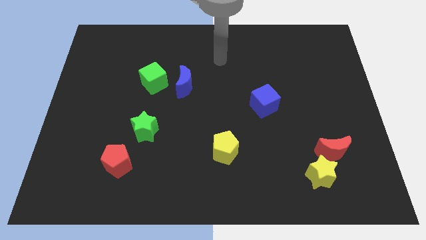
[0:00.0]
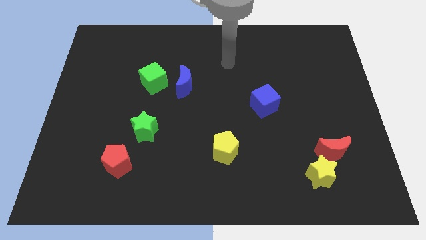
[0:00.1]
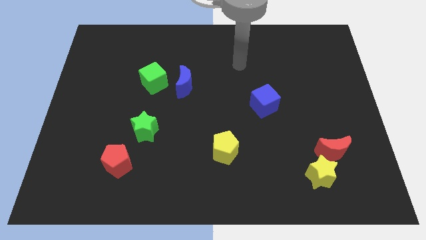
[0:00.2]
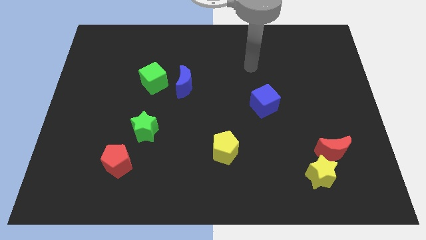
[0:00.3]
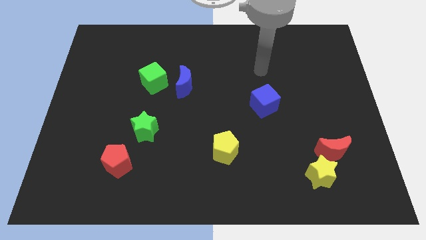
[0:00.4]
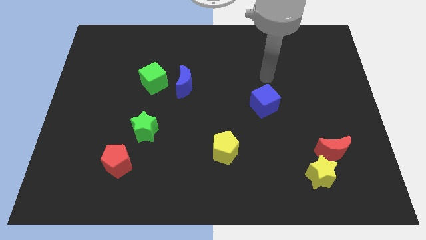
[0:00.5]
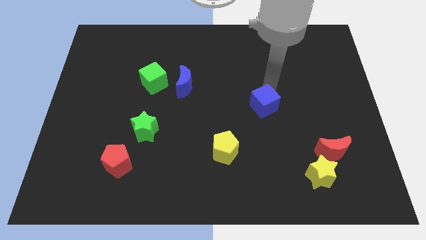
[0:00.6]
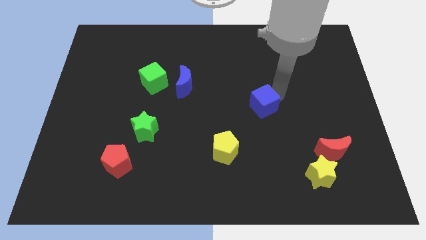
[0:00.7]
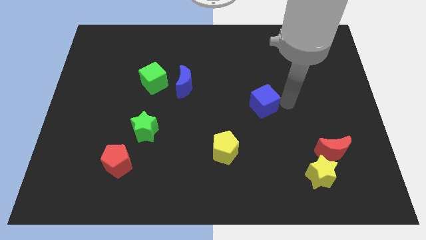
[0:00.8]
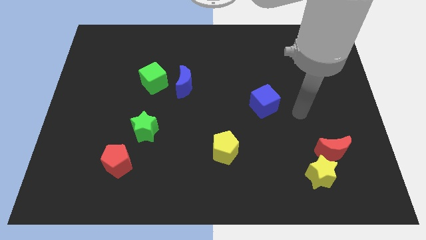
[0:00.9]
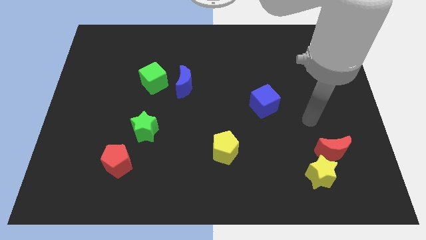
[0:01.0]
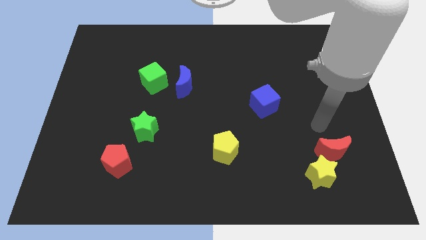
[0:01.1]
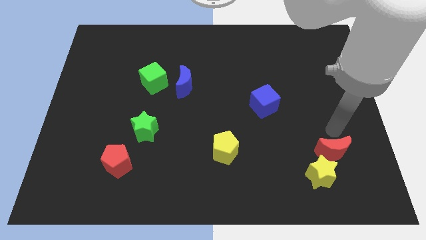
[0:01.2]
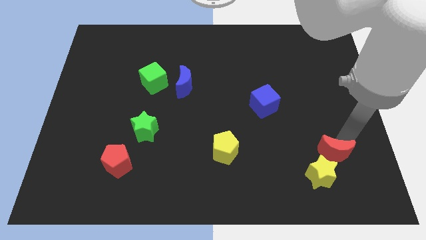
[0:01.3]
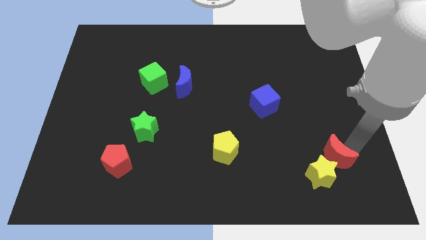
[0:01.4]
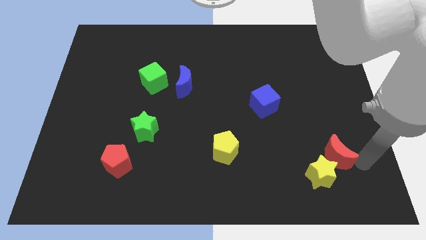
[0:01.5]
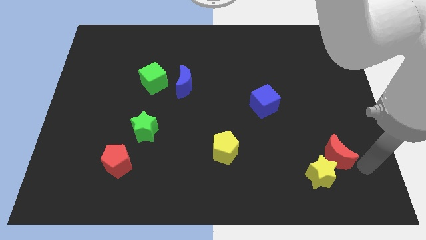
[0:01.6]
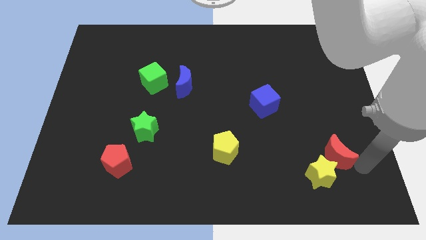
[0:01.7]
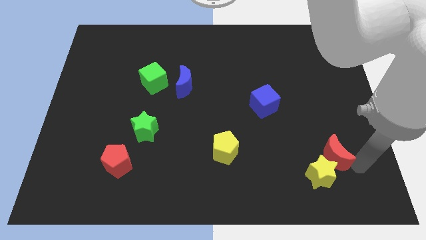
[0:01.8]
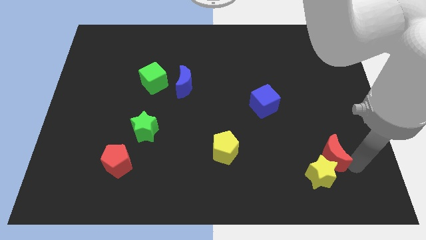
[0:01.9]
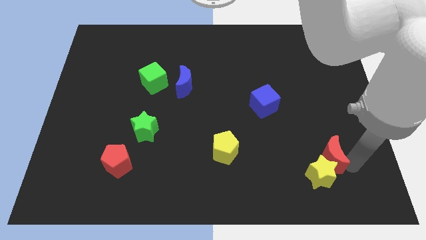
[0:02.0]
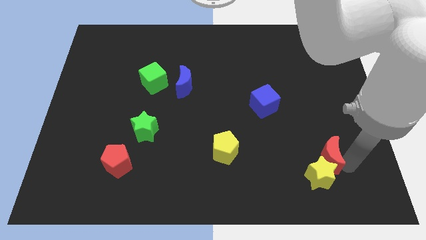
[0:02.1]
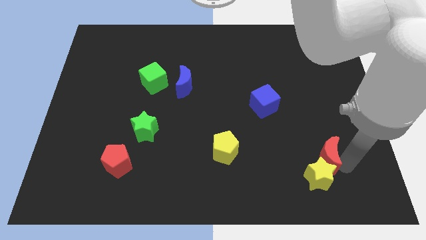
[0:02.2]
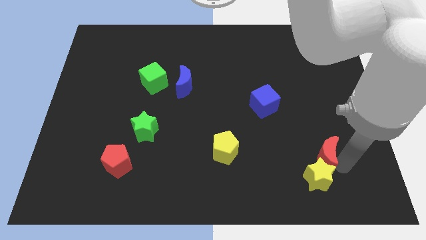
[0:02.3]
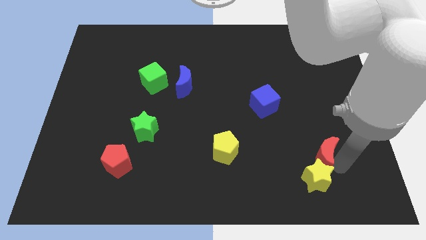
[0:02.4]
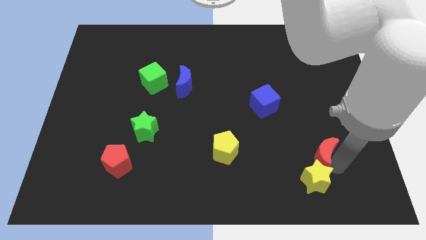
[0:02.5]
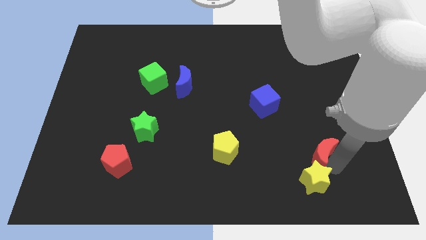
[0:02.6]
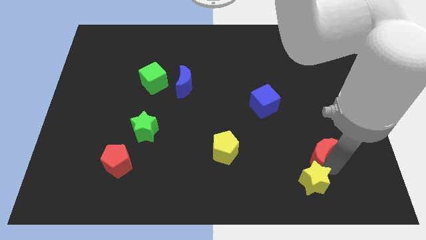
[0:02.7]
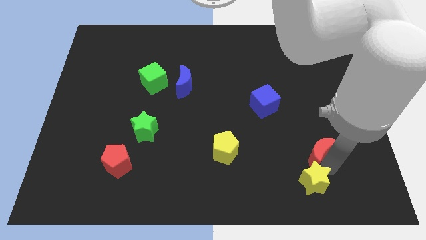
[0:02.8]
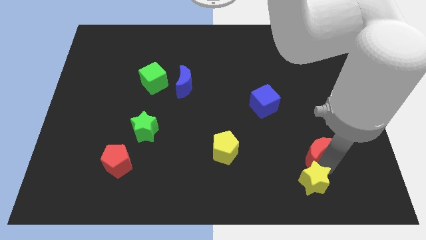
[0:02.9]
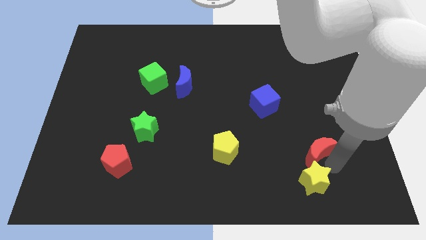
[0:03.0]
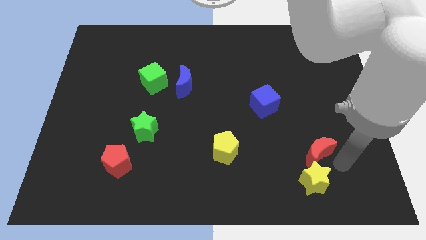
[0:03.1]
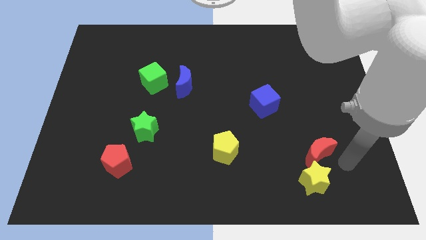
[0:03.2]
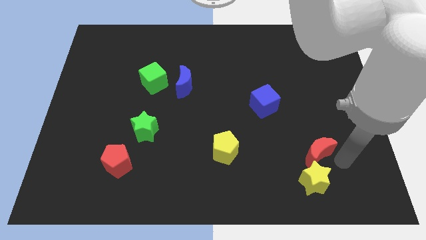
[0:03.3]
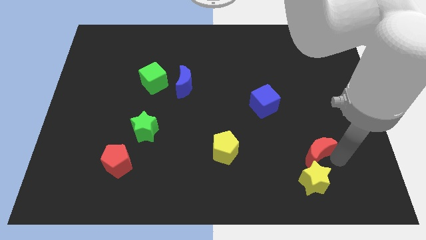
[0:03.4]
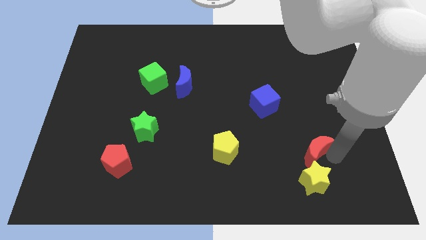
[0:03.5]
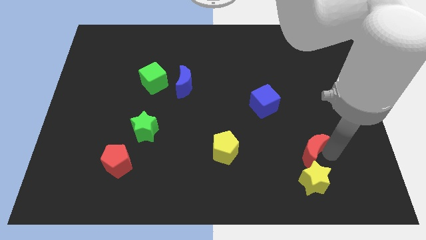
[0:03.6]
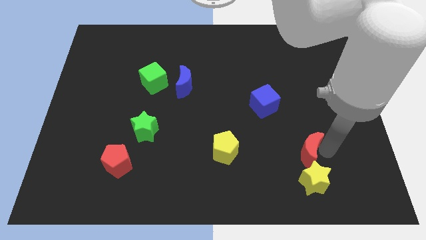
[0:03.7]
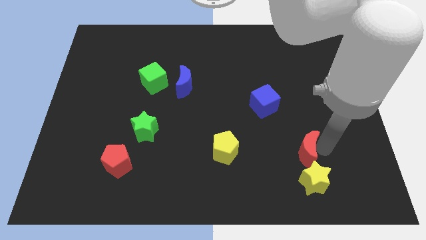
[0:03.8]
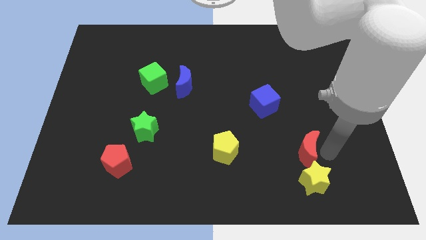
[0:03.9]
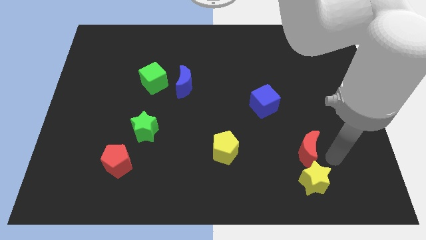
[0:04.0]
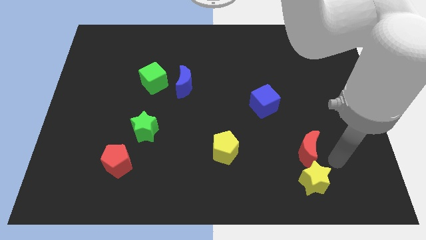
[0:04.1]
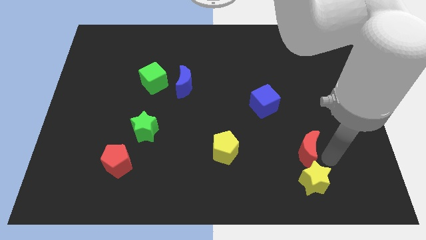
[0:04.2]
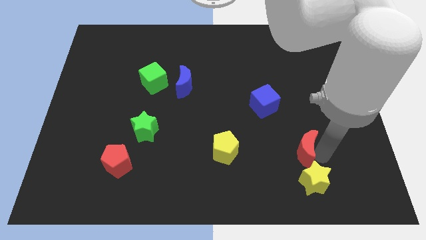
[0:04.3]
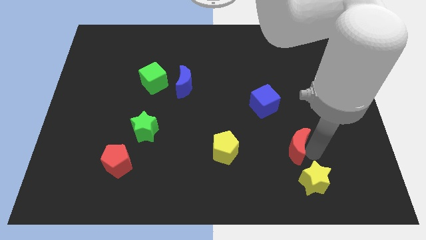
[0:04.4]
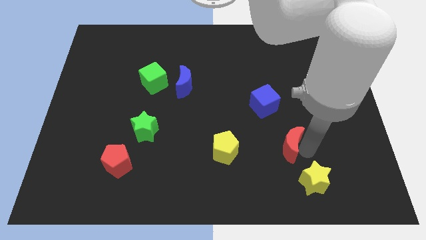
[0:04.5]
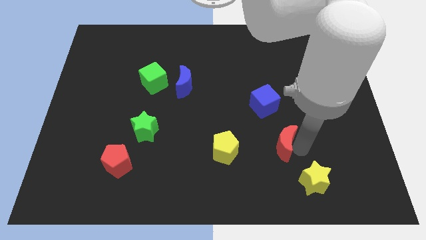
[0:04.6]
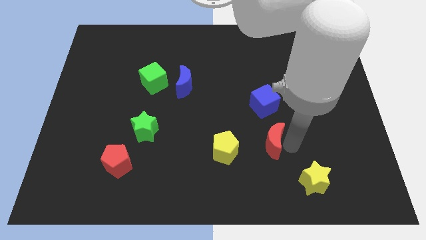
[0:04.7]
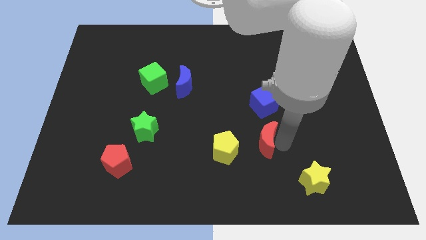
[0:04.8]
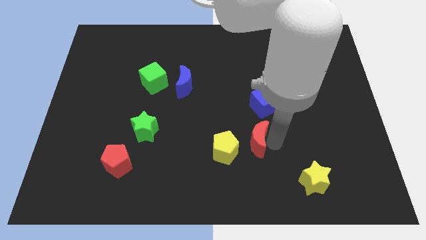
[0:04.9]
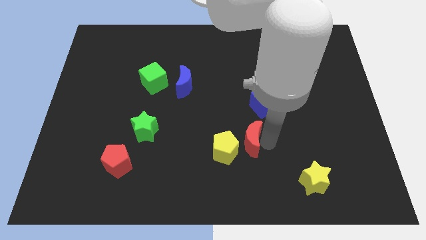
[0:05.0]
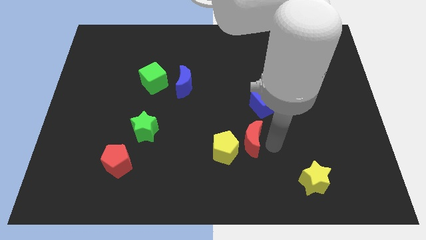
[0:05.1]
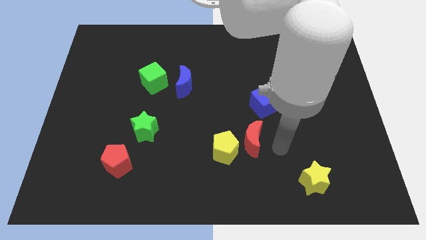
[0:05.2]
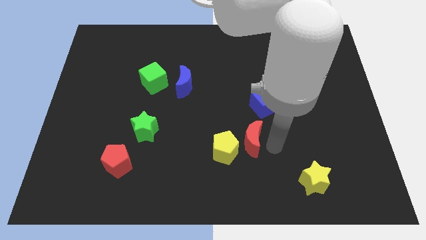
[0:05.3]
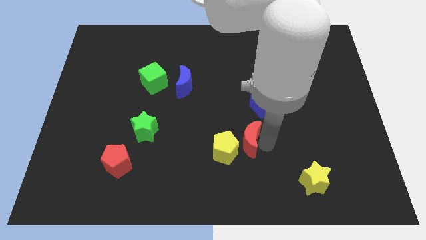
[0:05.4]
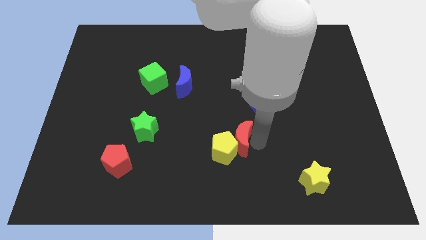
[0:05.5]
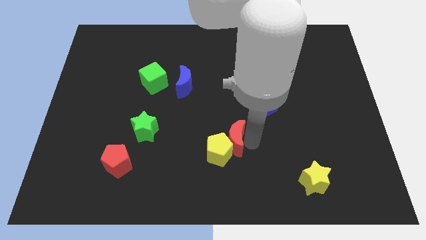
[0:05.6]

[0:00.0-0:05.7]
push the red moon to the left

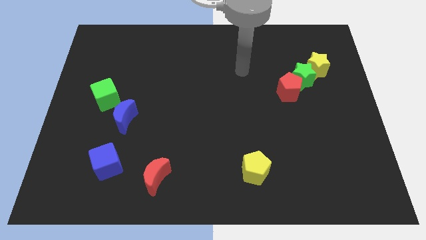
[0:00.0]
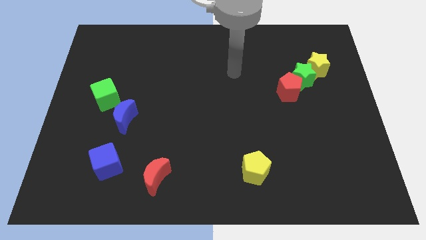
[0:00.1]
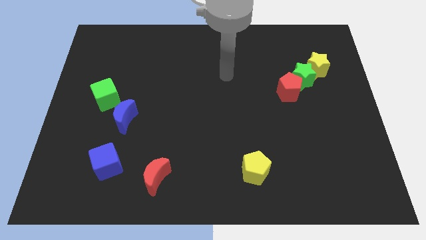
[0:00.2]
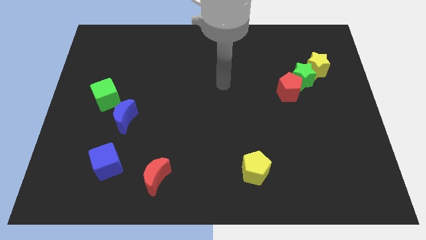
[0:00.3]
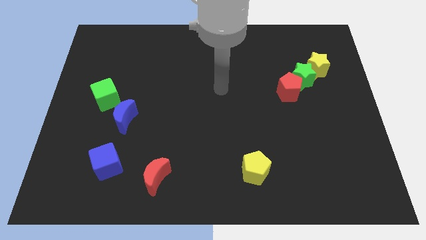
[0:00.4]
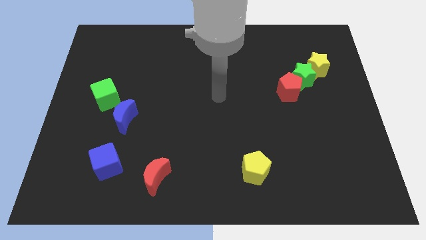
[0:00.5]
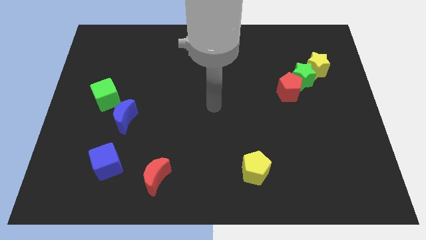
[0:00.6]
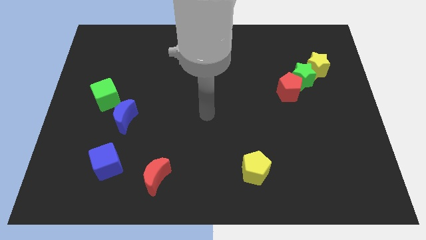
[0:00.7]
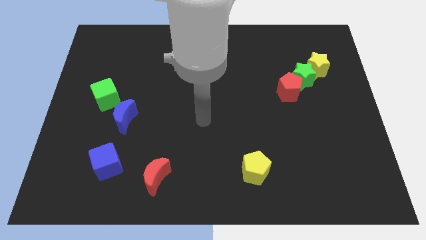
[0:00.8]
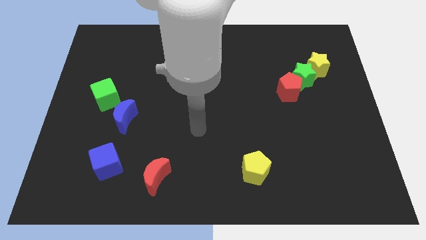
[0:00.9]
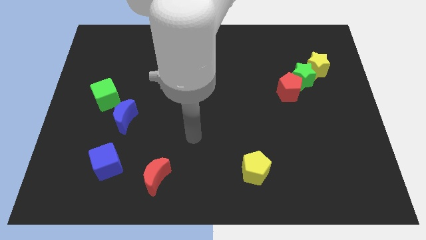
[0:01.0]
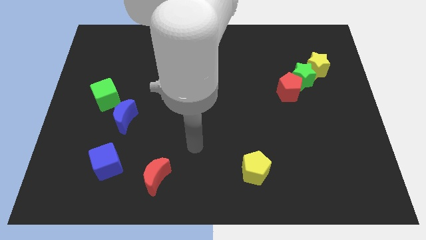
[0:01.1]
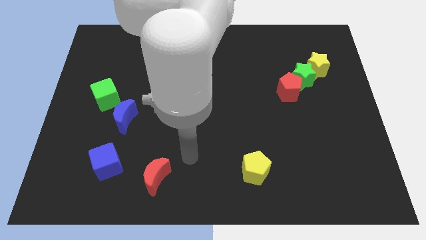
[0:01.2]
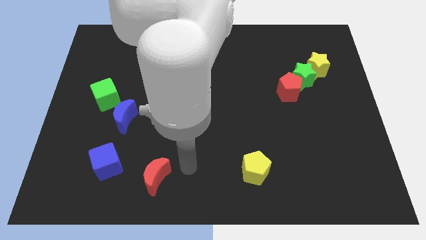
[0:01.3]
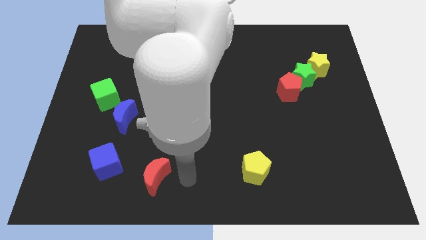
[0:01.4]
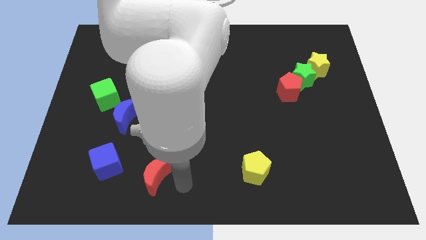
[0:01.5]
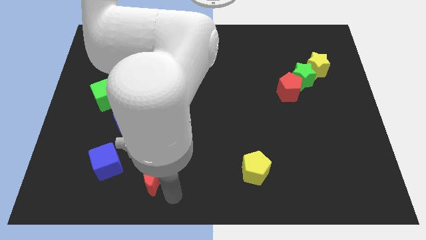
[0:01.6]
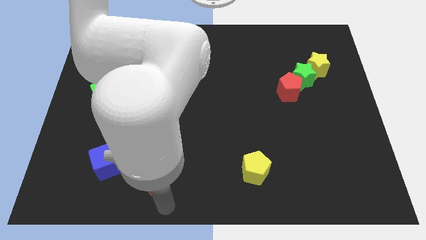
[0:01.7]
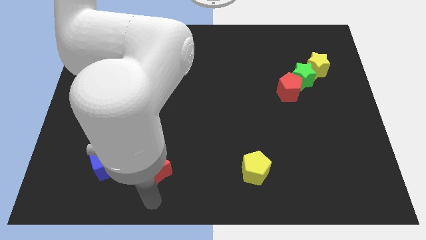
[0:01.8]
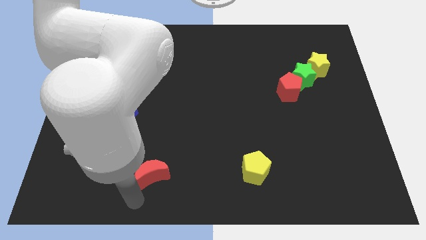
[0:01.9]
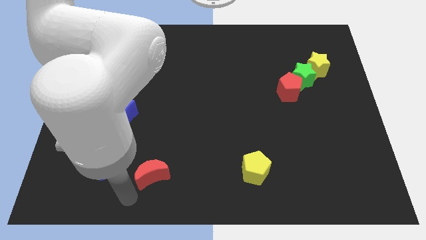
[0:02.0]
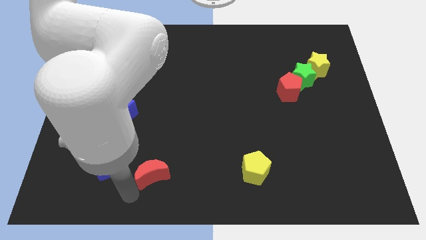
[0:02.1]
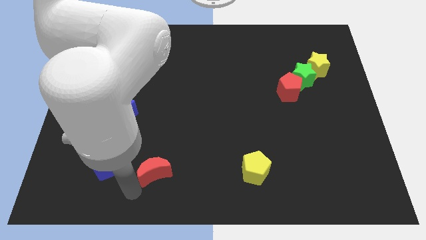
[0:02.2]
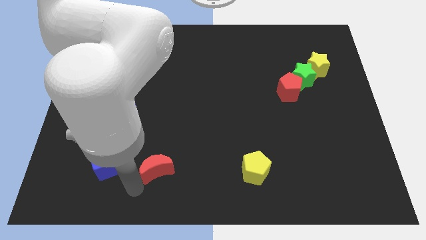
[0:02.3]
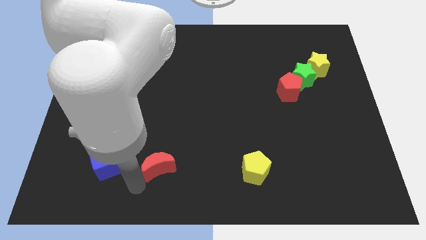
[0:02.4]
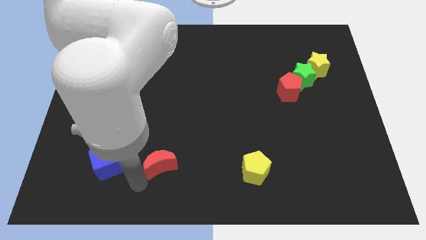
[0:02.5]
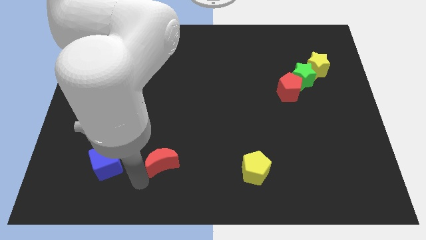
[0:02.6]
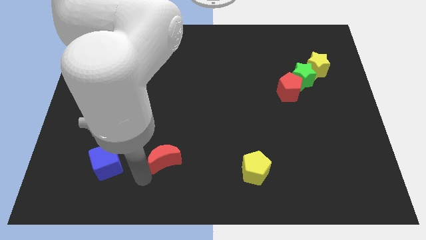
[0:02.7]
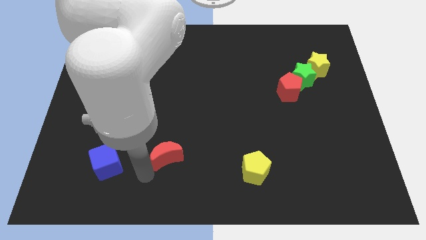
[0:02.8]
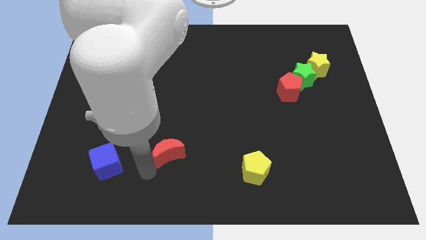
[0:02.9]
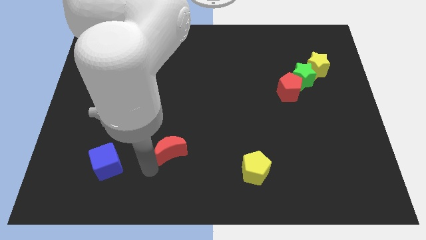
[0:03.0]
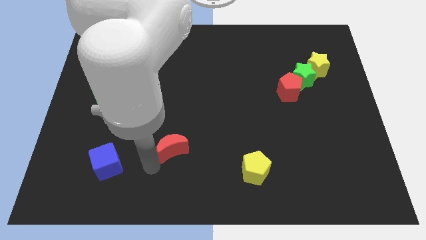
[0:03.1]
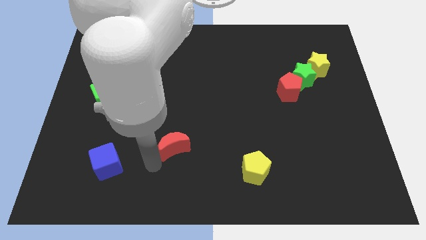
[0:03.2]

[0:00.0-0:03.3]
slide the red moon upwards and to the right slightly
